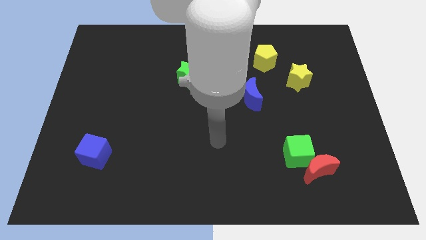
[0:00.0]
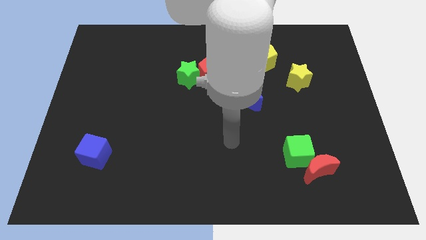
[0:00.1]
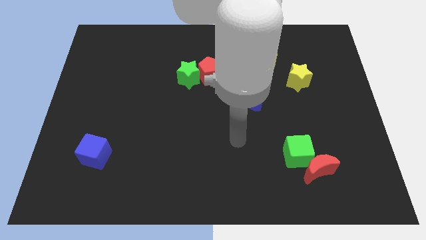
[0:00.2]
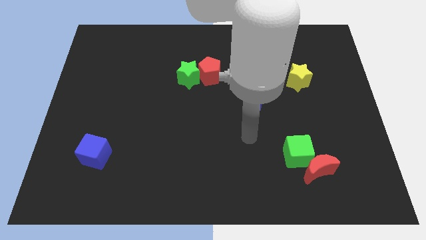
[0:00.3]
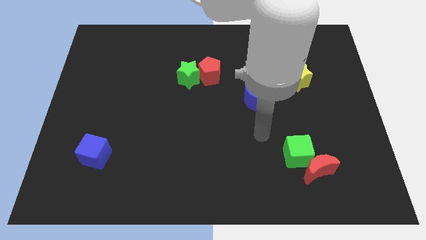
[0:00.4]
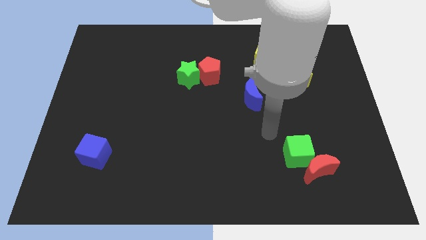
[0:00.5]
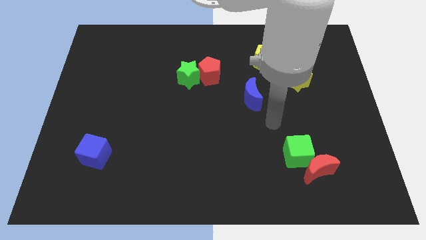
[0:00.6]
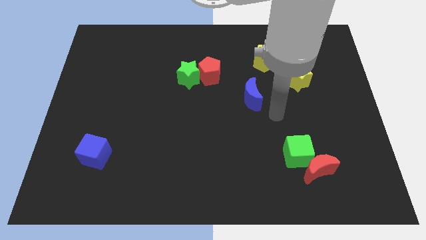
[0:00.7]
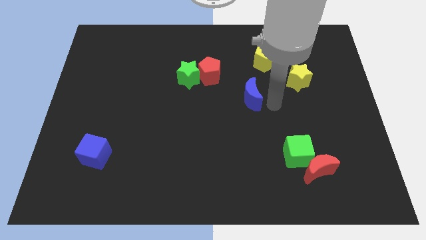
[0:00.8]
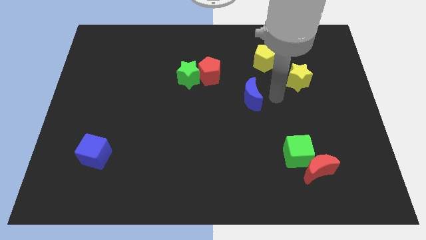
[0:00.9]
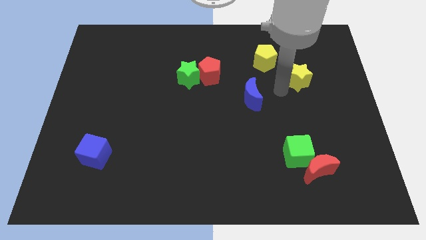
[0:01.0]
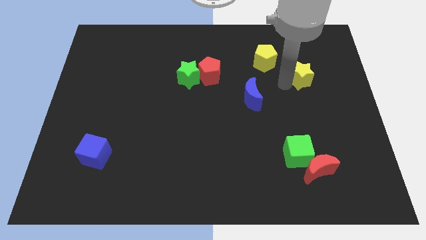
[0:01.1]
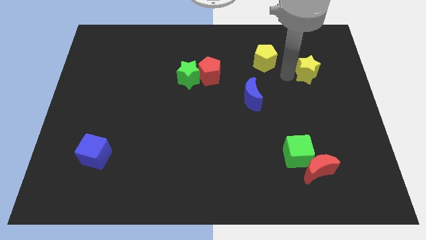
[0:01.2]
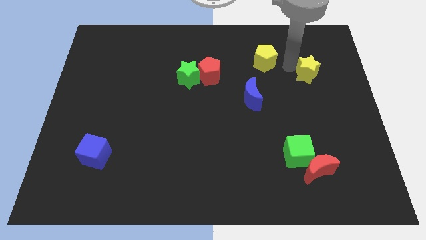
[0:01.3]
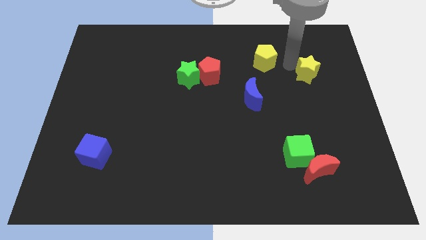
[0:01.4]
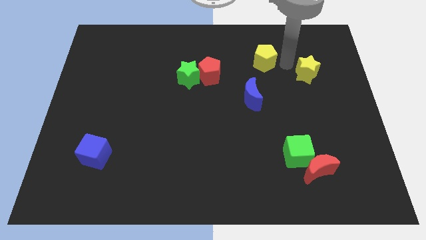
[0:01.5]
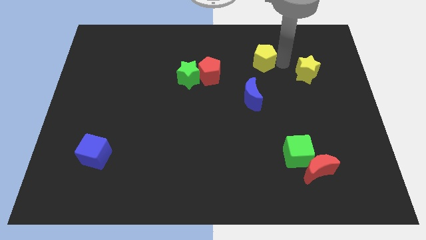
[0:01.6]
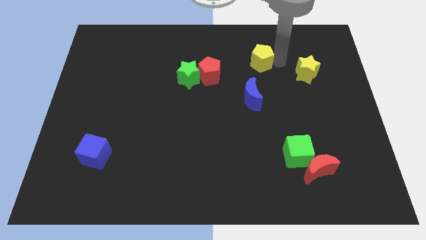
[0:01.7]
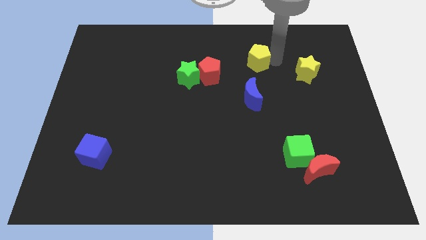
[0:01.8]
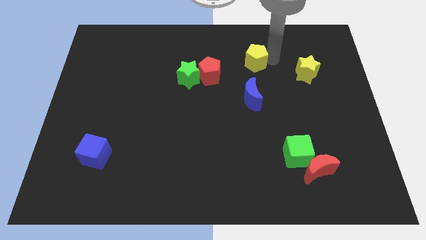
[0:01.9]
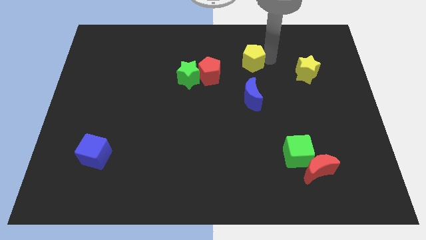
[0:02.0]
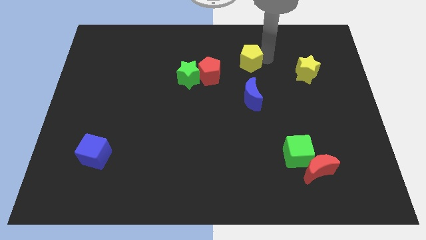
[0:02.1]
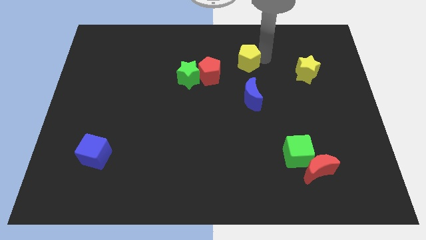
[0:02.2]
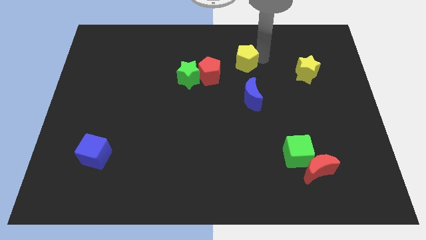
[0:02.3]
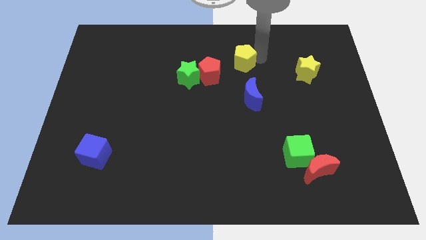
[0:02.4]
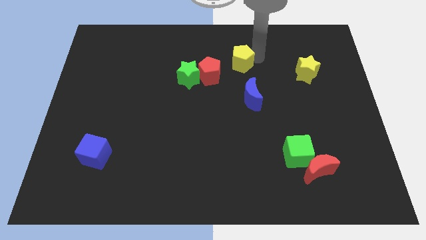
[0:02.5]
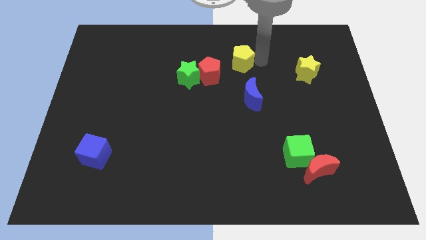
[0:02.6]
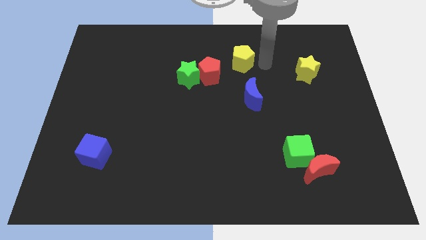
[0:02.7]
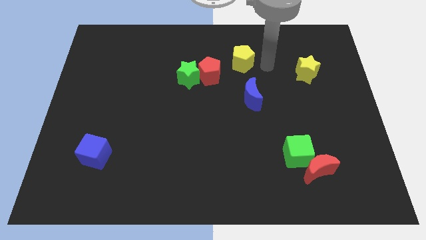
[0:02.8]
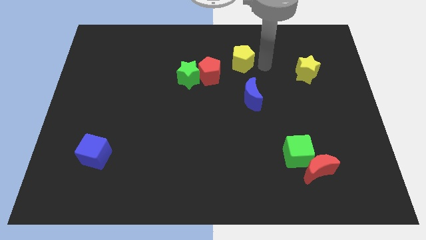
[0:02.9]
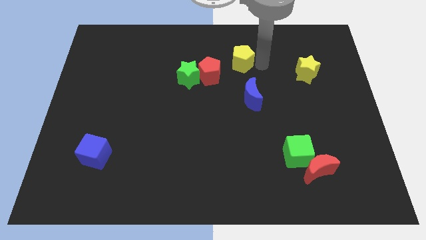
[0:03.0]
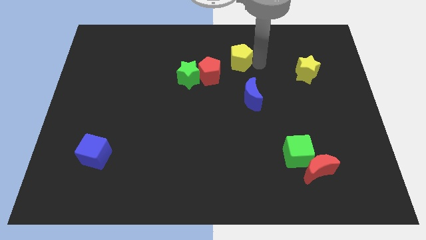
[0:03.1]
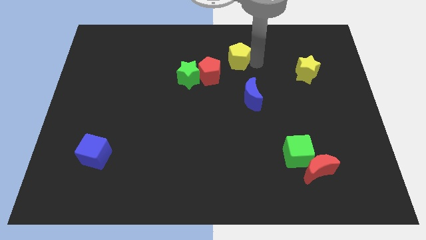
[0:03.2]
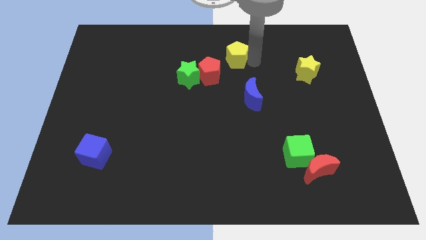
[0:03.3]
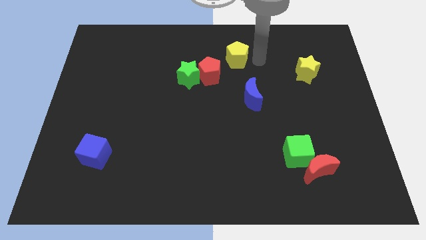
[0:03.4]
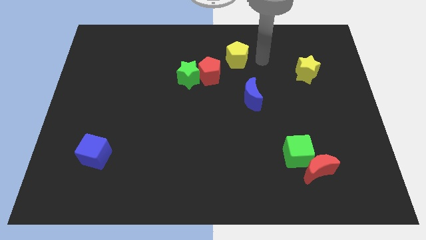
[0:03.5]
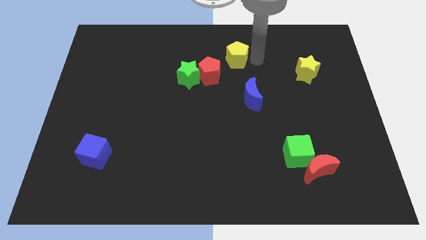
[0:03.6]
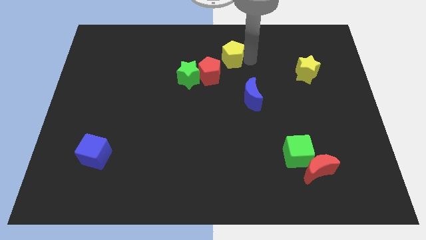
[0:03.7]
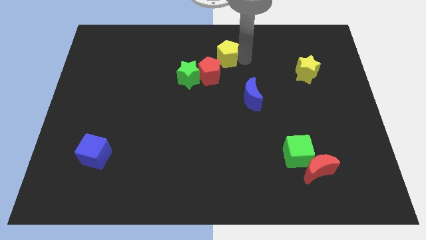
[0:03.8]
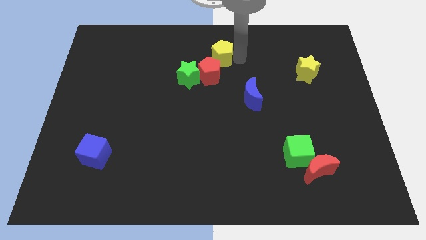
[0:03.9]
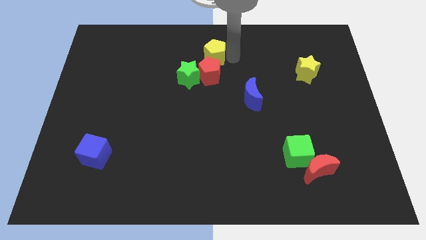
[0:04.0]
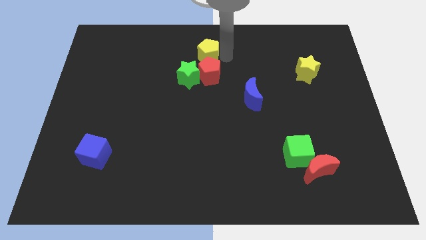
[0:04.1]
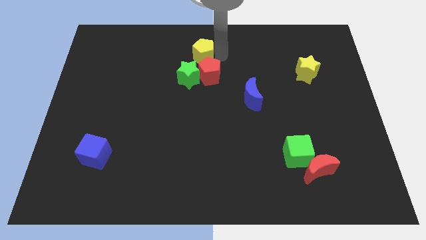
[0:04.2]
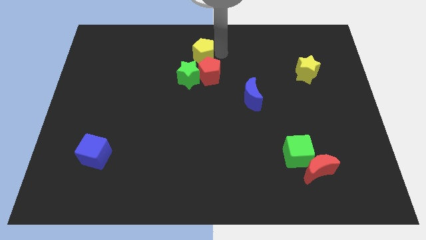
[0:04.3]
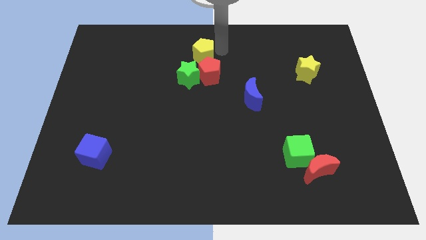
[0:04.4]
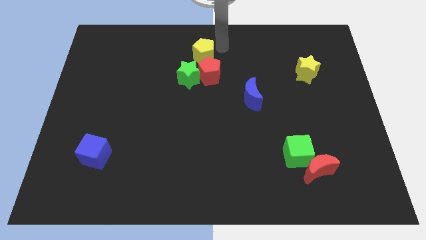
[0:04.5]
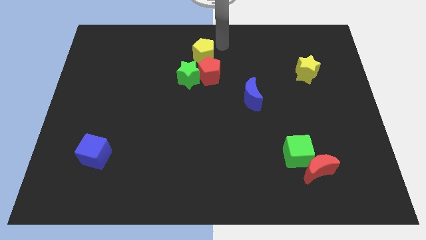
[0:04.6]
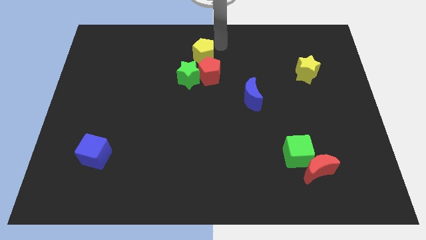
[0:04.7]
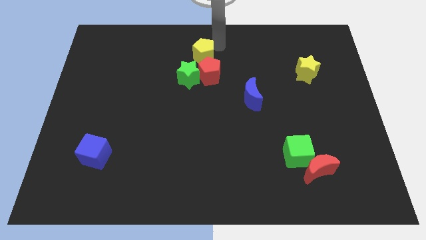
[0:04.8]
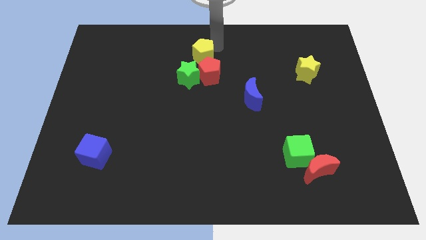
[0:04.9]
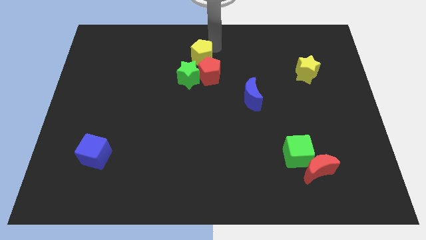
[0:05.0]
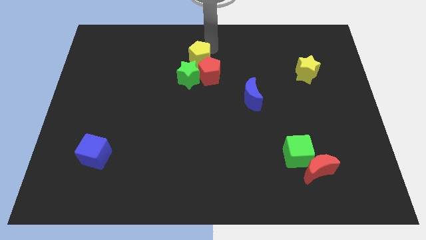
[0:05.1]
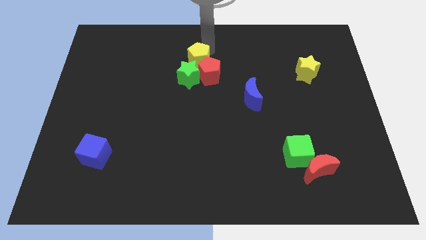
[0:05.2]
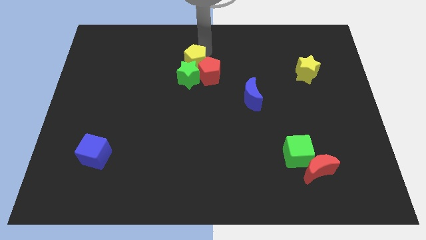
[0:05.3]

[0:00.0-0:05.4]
move the yellow pentagon to the left of the red pentagon

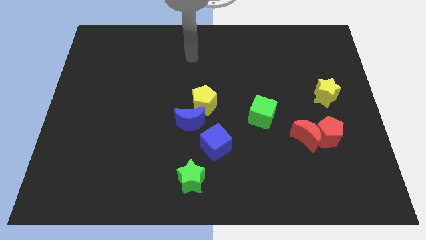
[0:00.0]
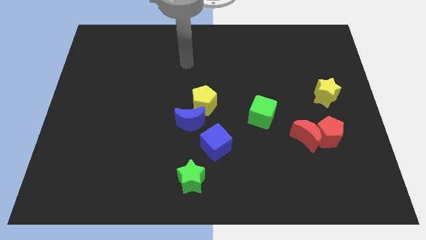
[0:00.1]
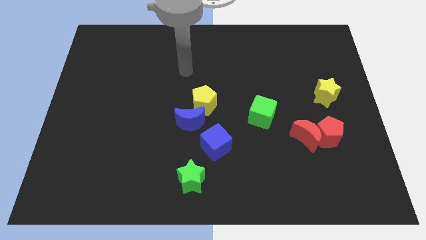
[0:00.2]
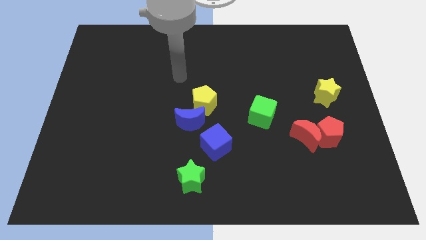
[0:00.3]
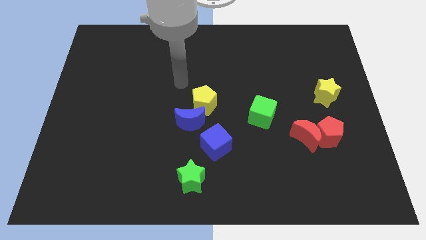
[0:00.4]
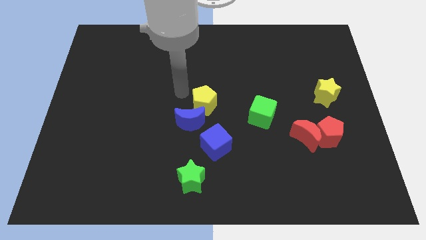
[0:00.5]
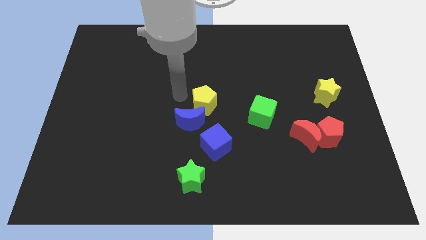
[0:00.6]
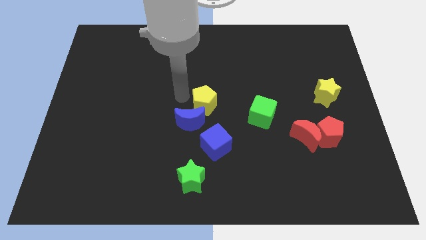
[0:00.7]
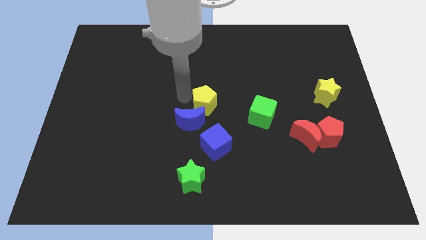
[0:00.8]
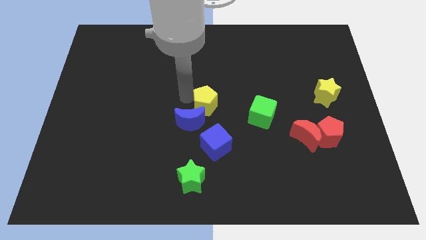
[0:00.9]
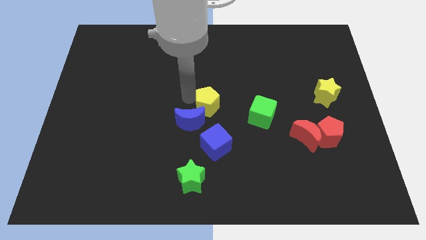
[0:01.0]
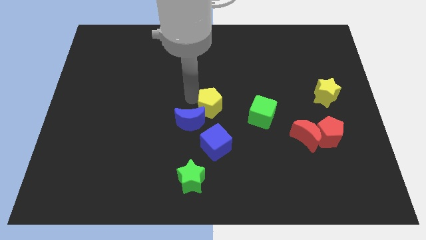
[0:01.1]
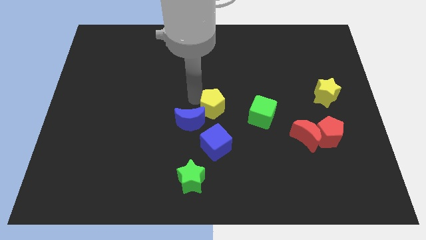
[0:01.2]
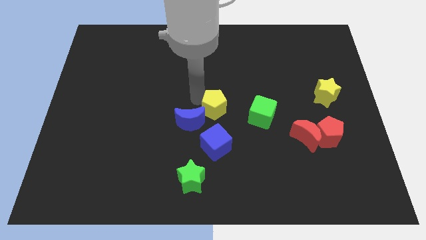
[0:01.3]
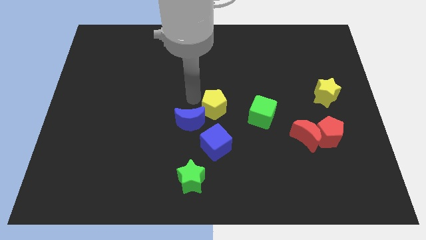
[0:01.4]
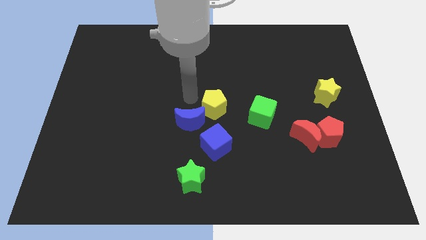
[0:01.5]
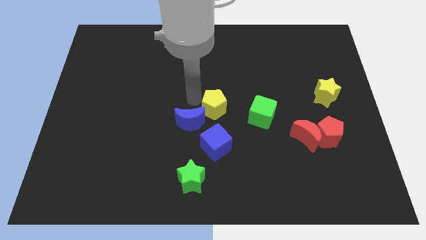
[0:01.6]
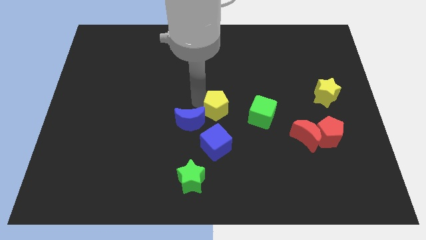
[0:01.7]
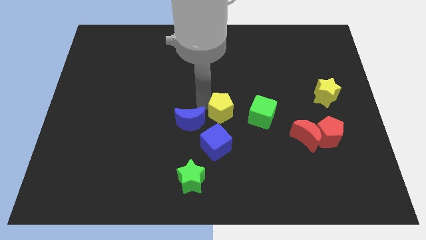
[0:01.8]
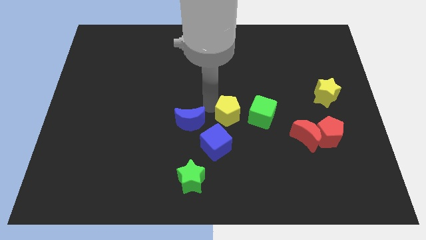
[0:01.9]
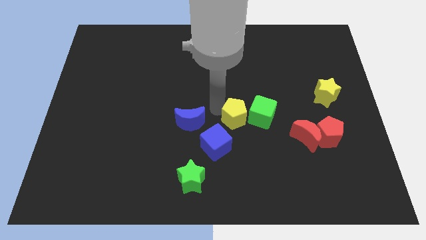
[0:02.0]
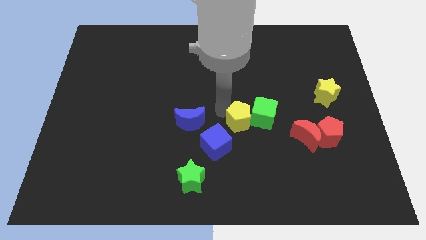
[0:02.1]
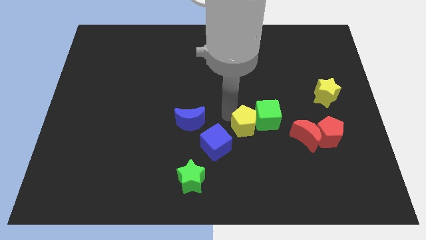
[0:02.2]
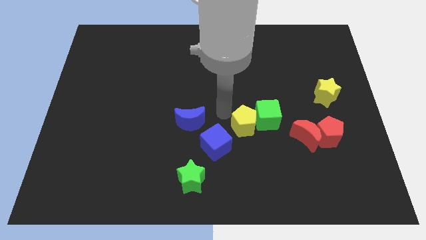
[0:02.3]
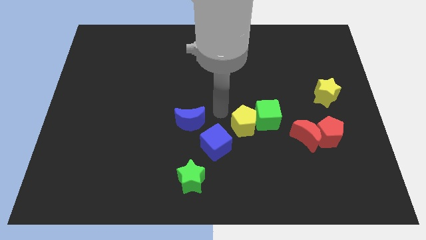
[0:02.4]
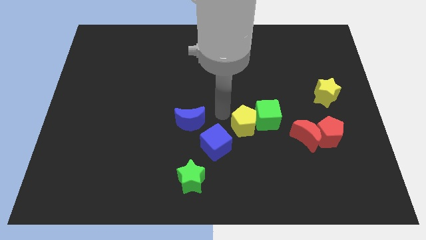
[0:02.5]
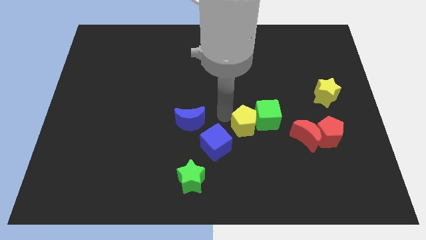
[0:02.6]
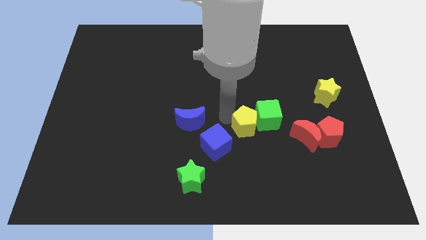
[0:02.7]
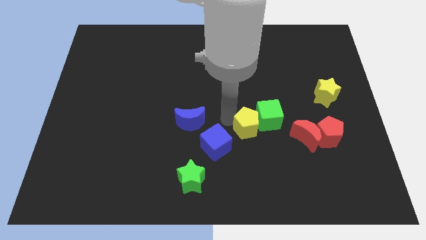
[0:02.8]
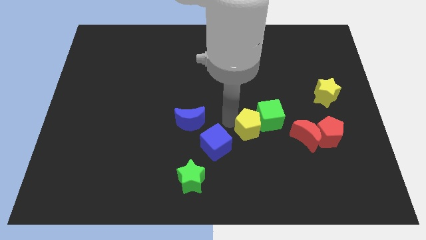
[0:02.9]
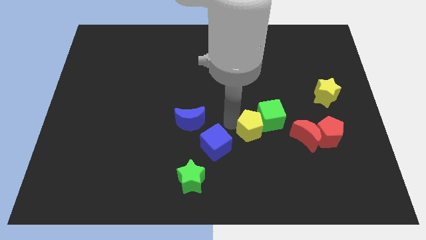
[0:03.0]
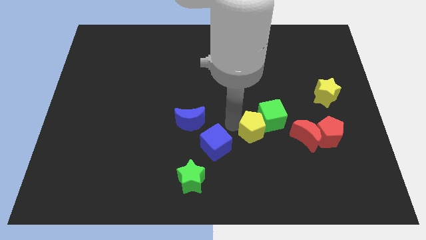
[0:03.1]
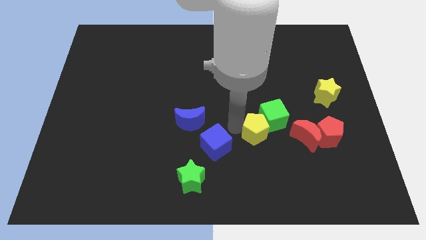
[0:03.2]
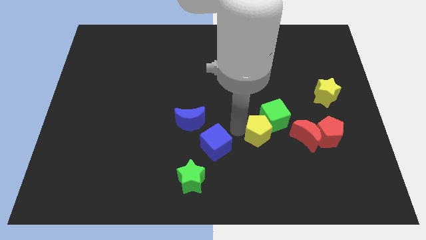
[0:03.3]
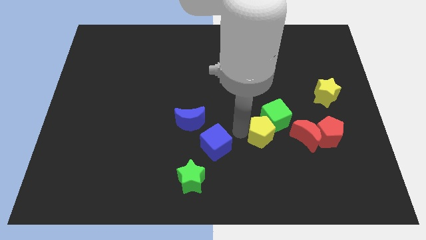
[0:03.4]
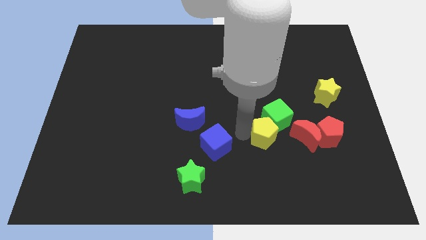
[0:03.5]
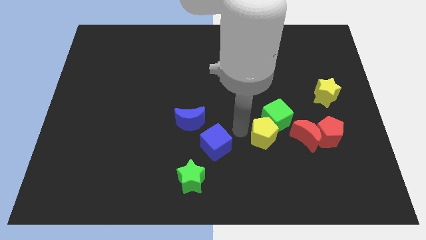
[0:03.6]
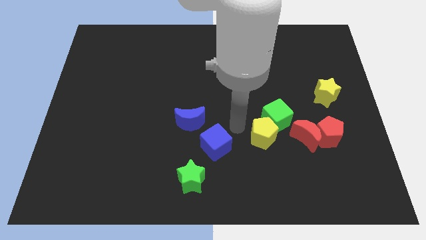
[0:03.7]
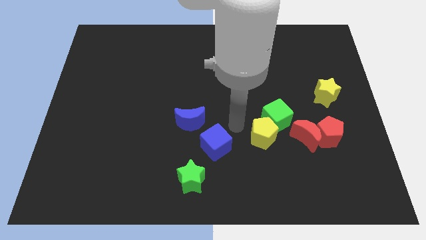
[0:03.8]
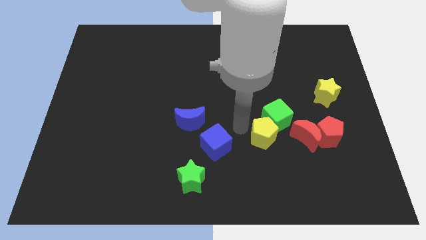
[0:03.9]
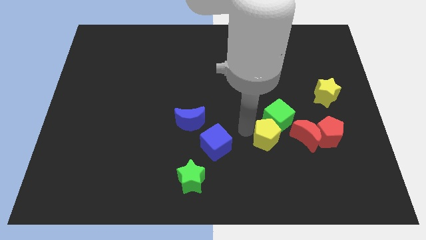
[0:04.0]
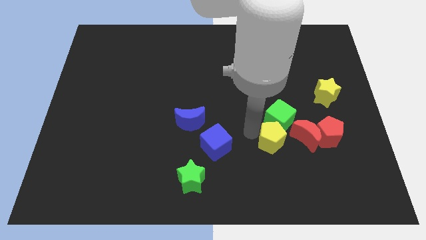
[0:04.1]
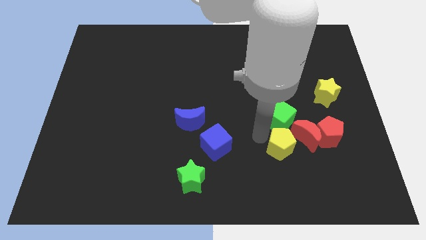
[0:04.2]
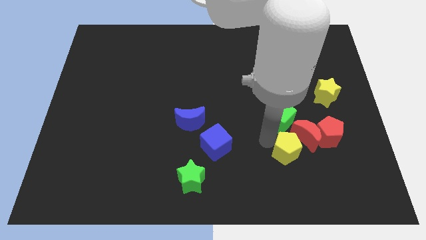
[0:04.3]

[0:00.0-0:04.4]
put the yellow pentagon to the bottom left side of the red pentagon
